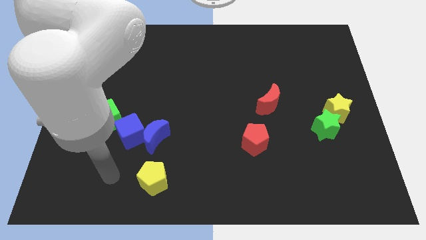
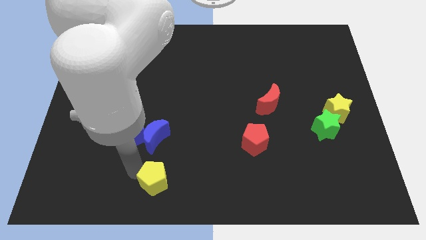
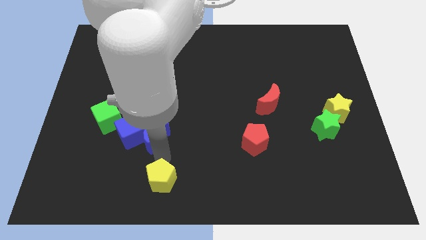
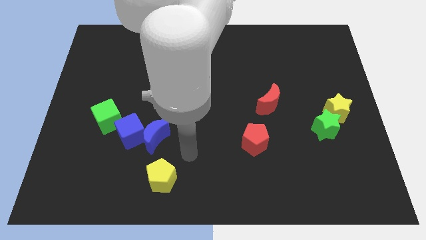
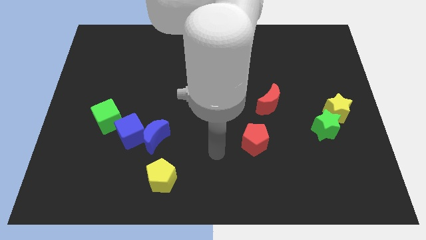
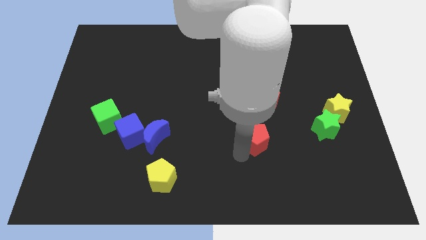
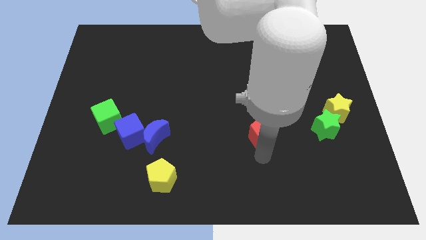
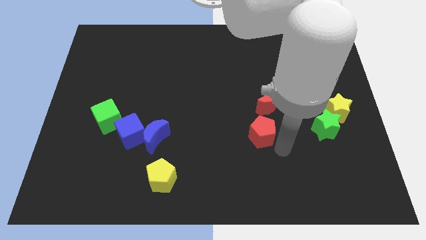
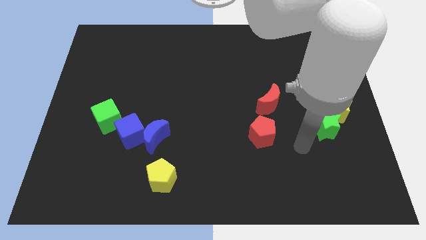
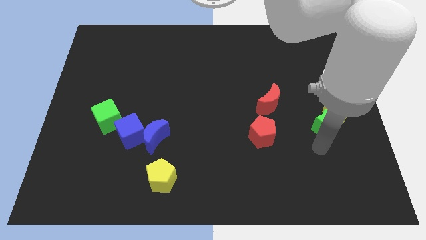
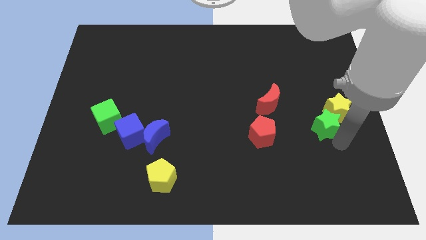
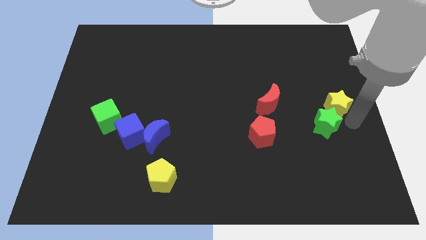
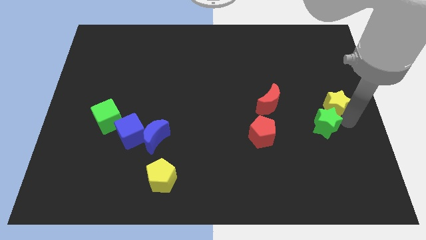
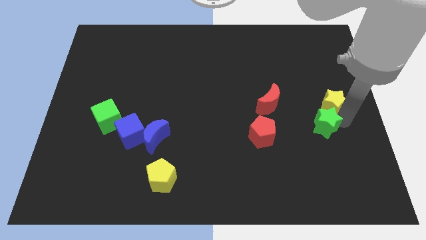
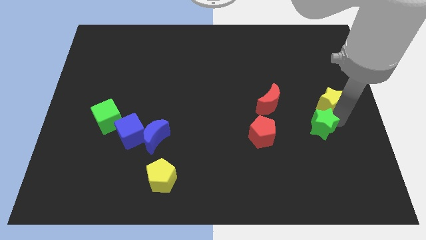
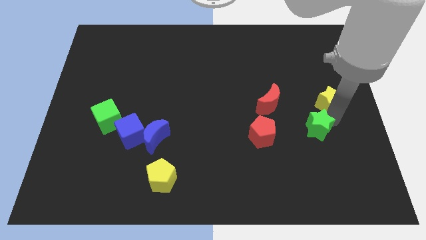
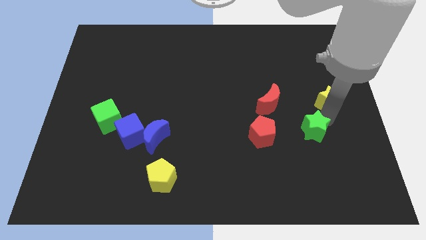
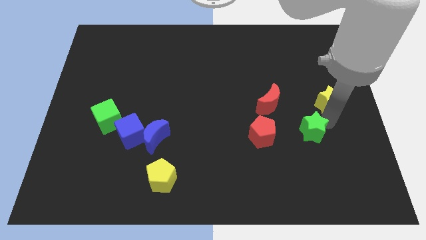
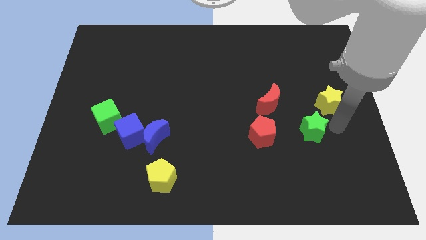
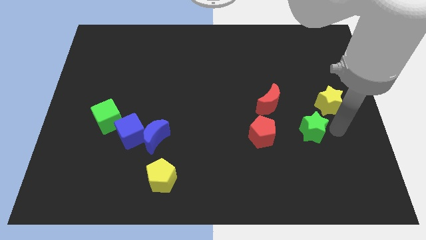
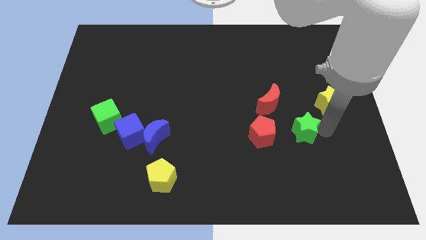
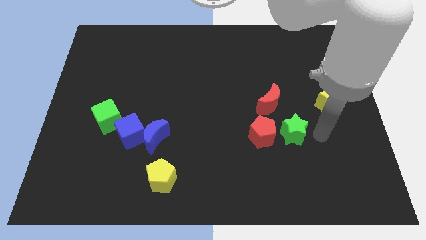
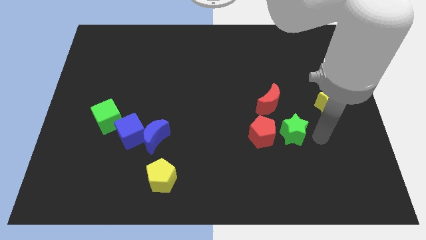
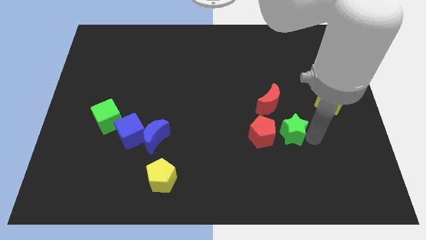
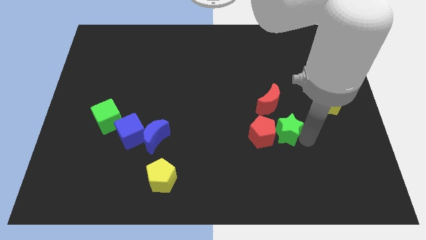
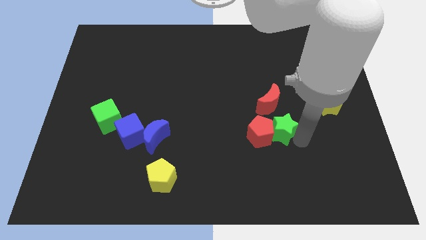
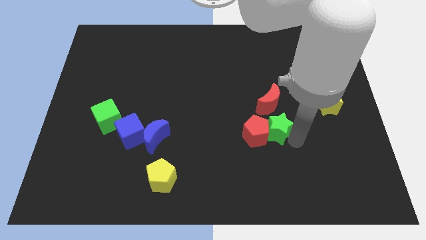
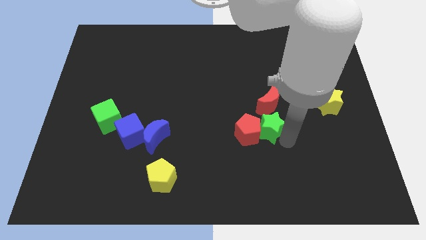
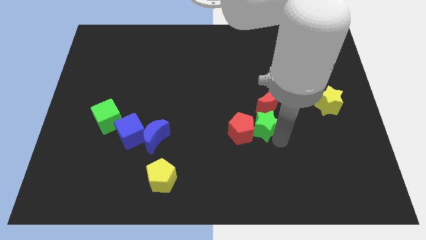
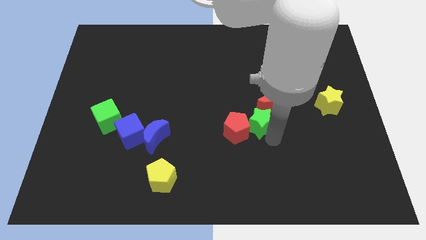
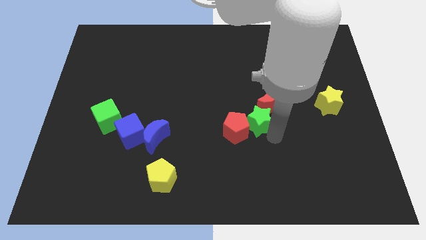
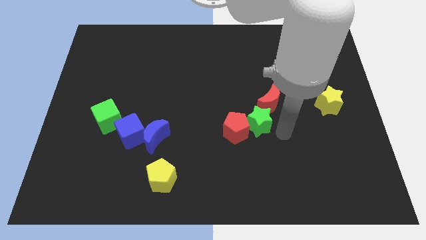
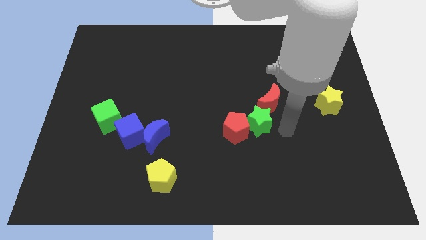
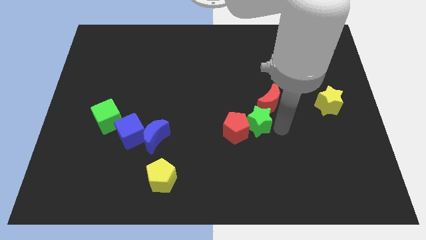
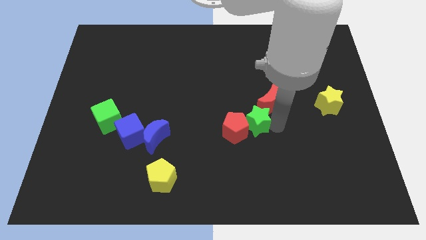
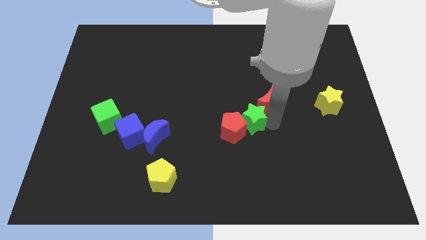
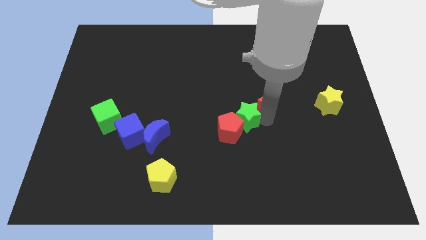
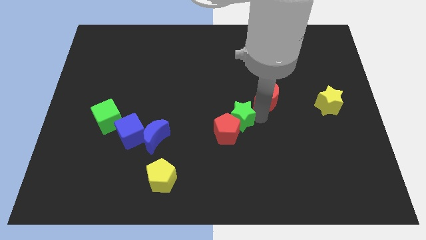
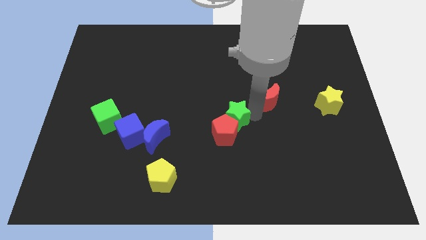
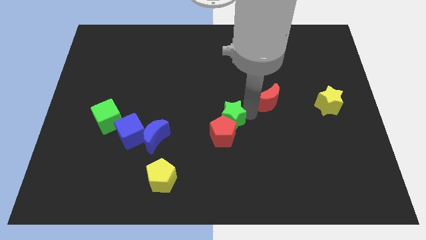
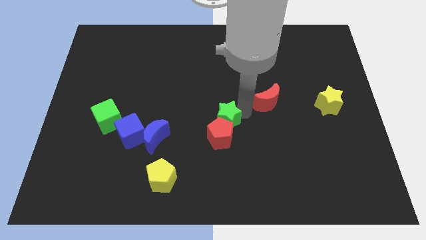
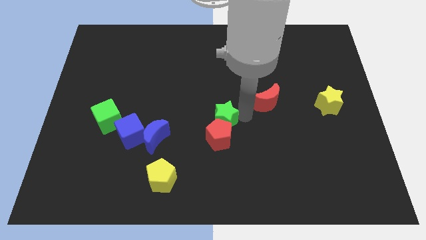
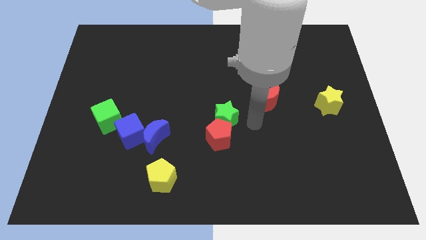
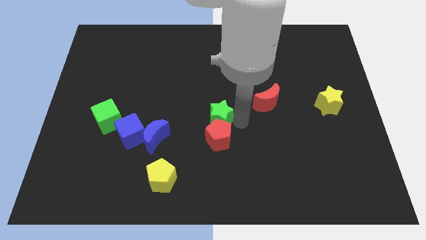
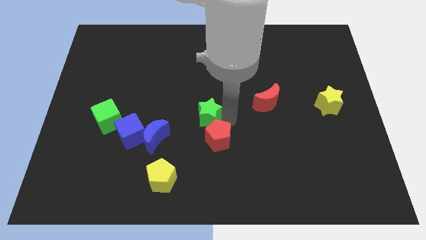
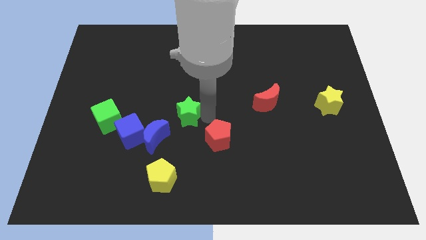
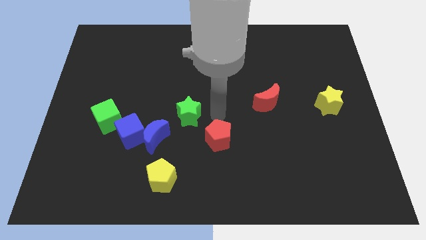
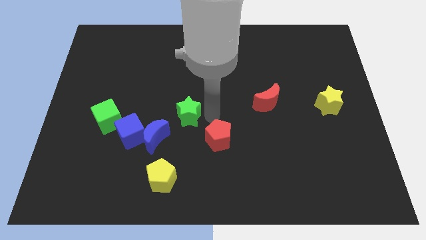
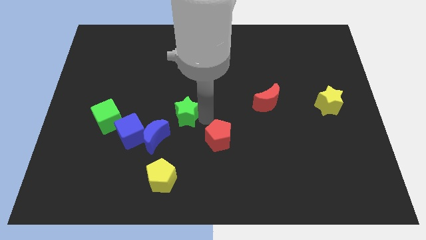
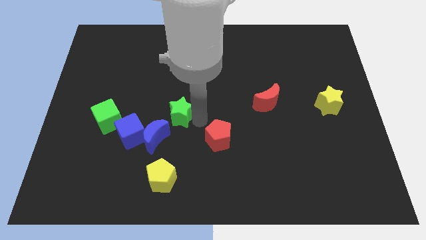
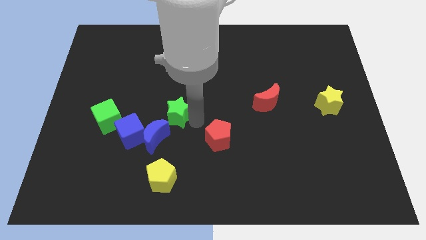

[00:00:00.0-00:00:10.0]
slide the green star to the top right of the blue cube

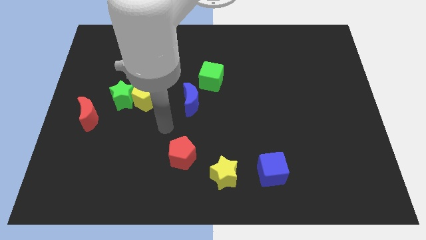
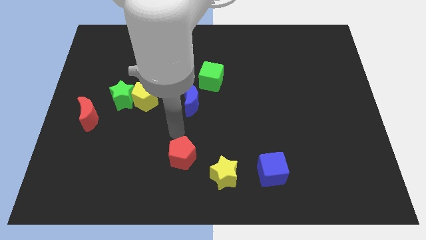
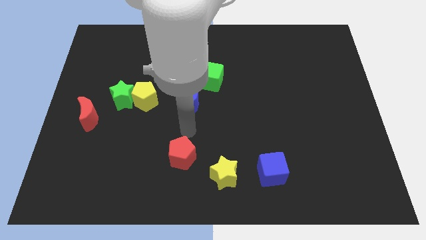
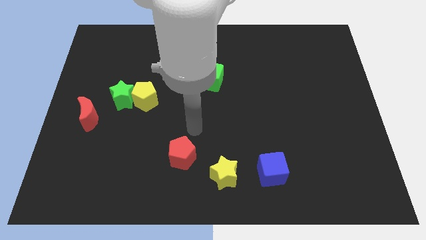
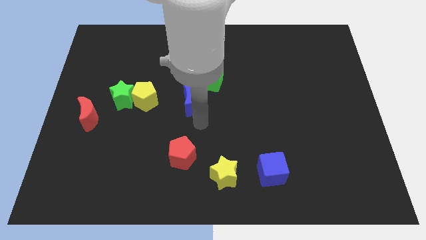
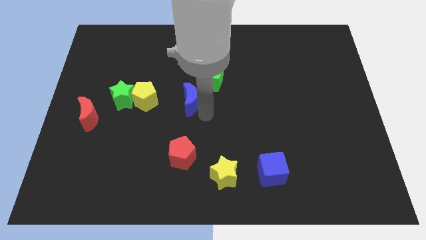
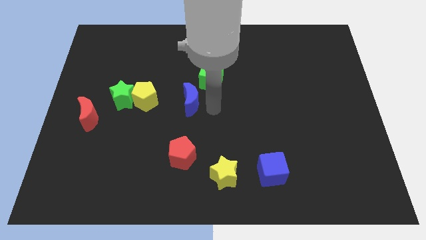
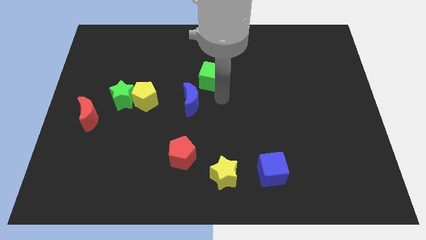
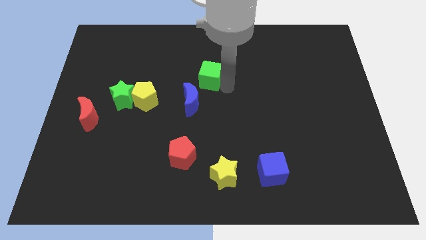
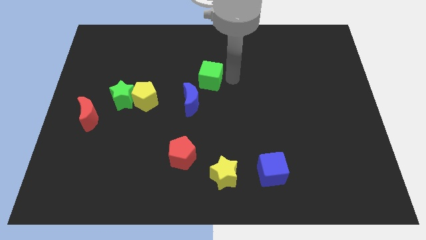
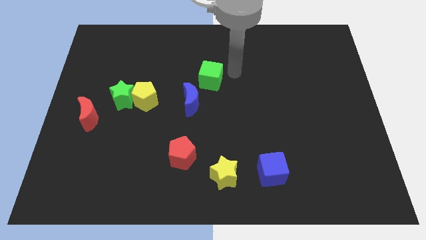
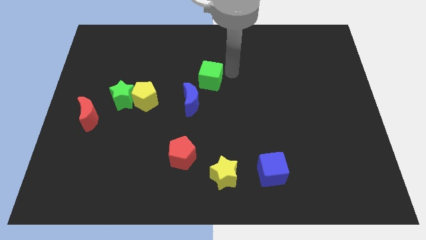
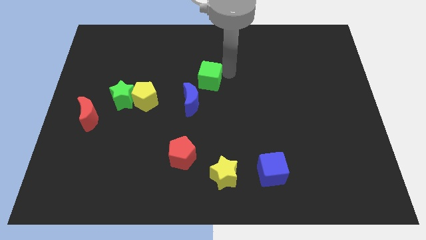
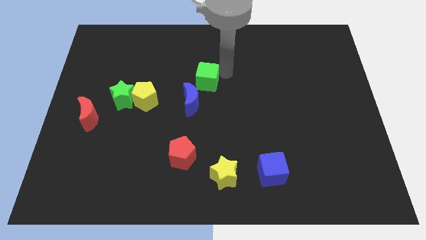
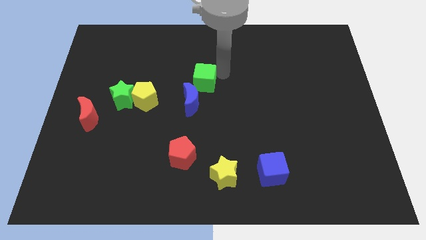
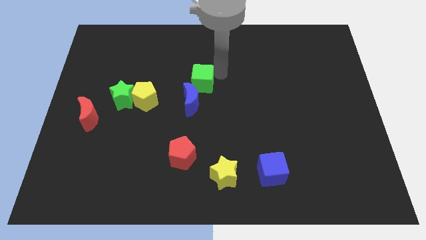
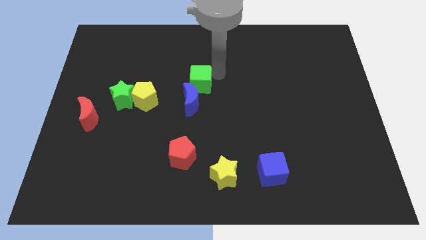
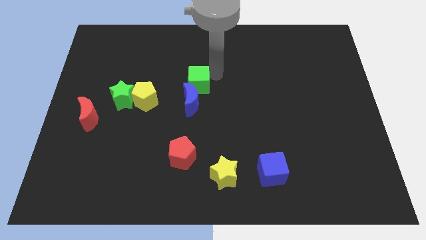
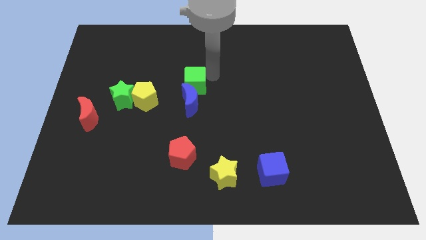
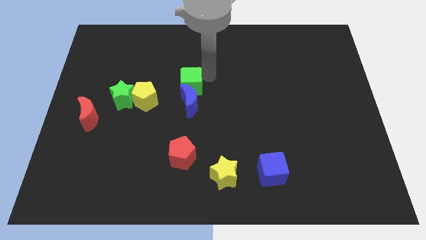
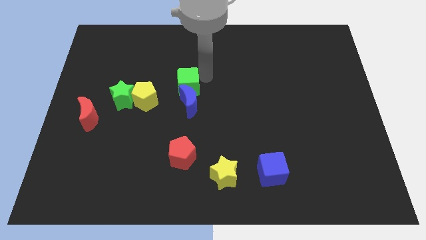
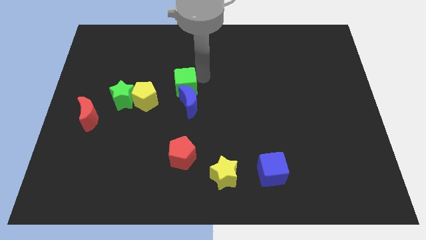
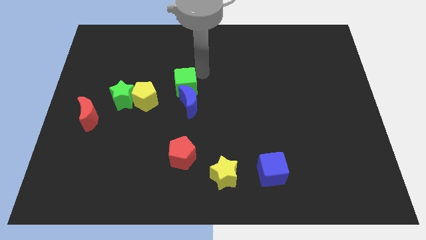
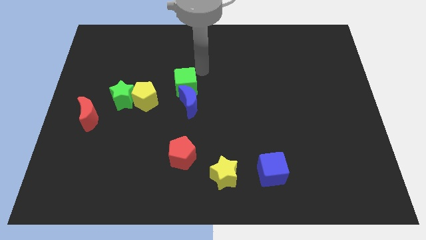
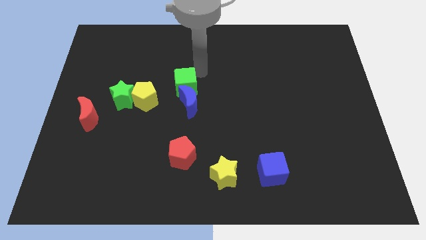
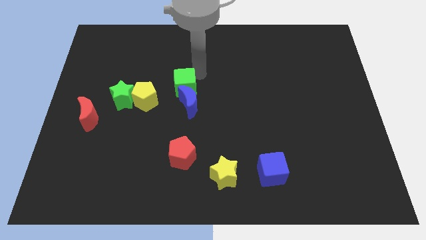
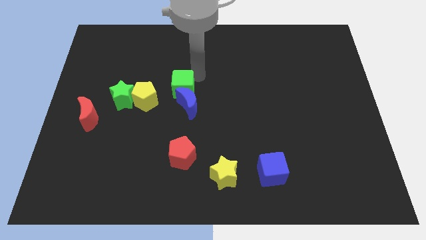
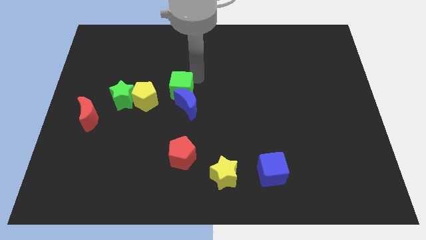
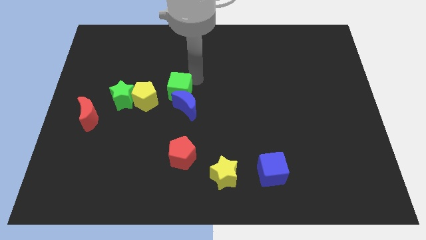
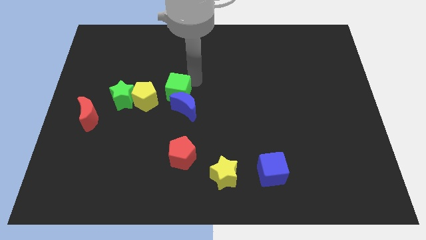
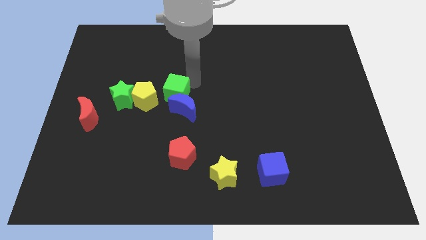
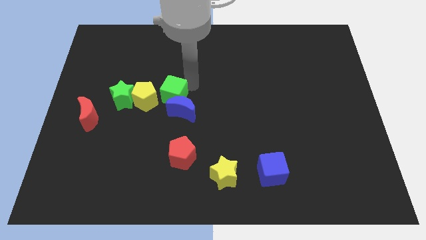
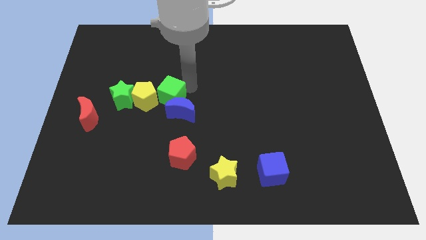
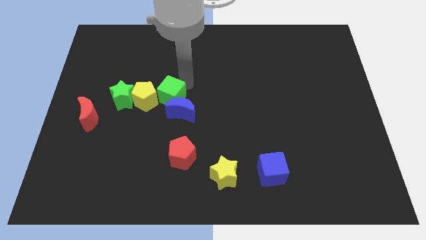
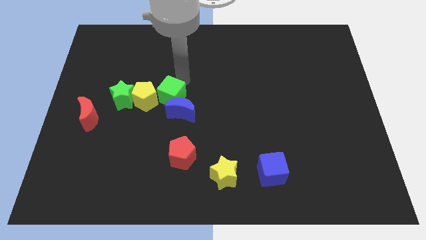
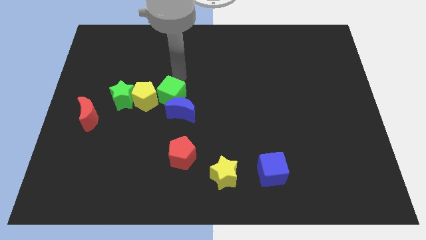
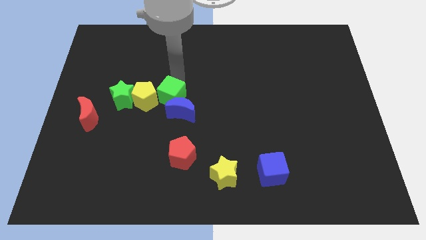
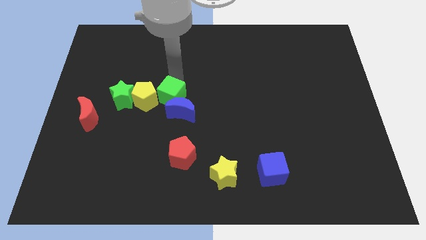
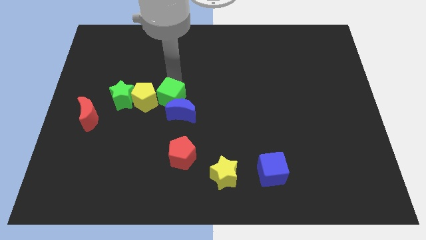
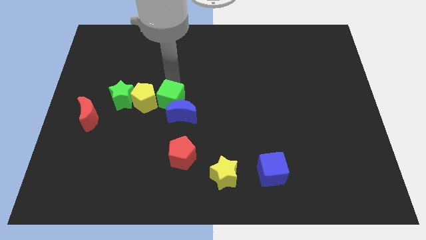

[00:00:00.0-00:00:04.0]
move the green cube to the bottom right side of the yellow pentagon
